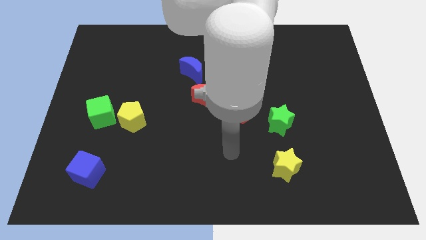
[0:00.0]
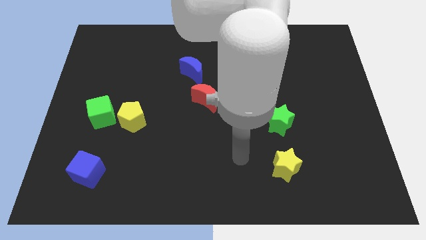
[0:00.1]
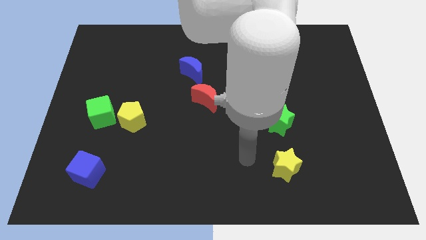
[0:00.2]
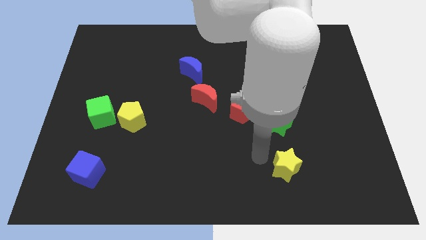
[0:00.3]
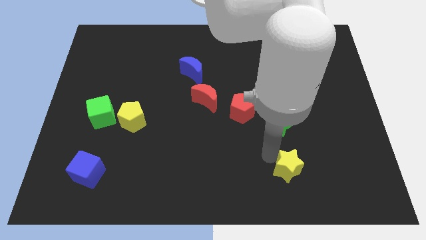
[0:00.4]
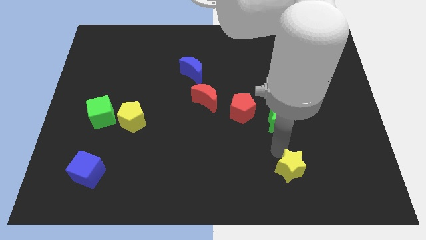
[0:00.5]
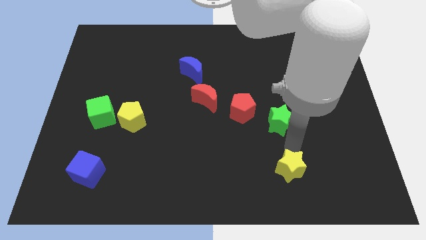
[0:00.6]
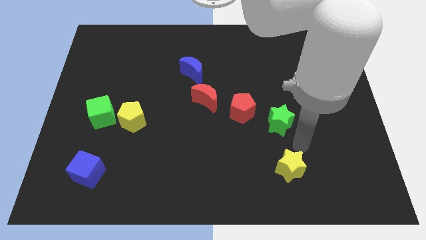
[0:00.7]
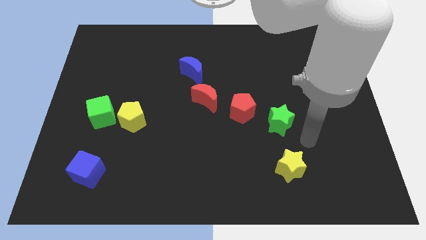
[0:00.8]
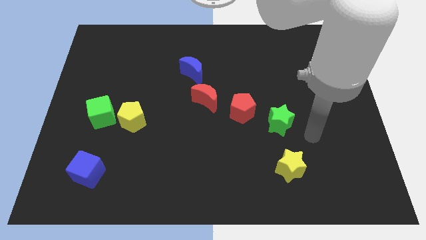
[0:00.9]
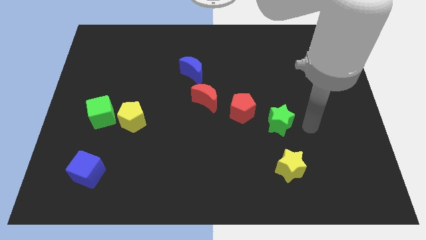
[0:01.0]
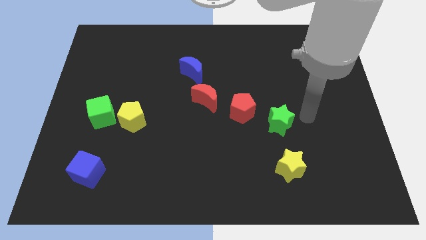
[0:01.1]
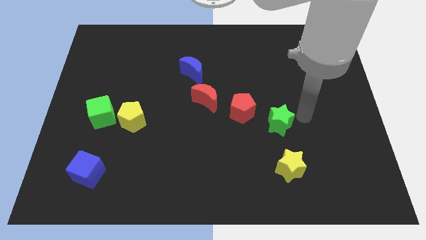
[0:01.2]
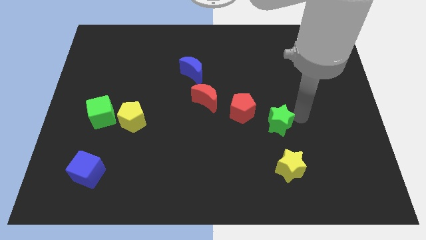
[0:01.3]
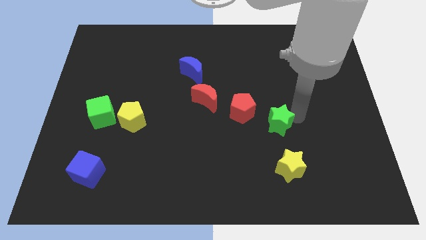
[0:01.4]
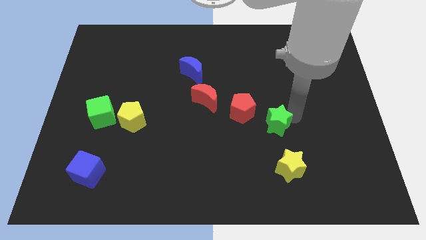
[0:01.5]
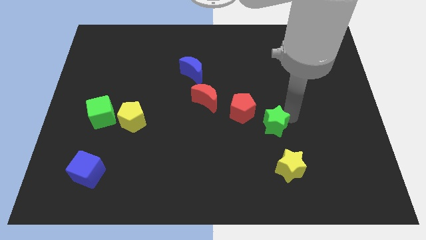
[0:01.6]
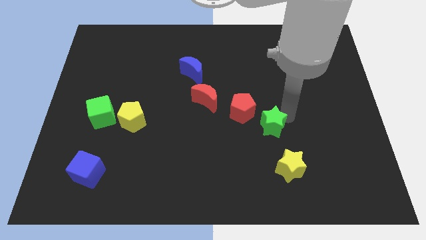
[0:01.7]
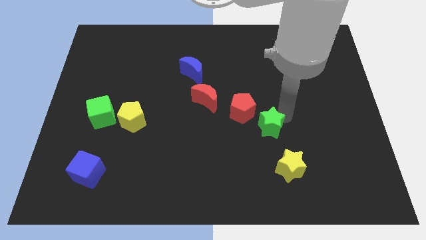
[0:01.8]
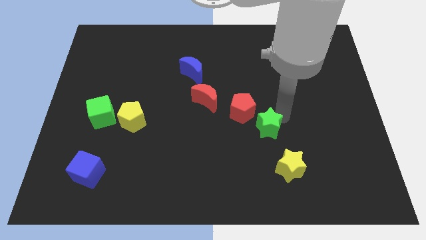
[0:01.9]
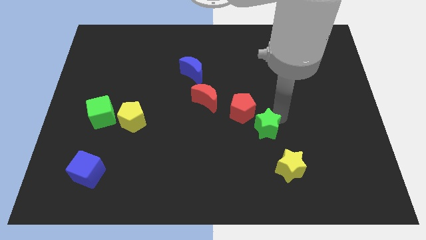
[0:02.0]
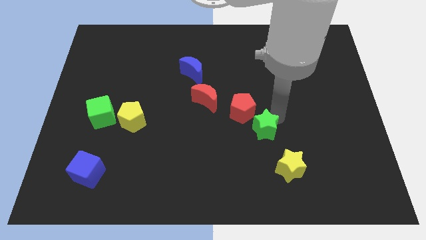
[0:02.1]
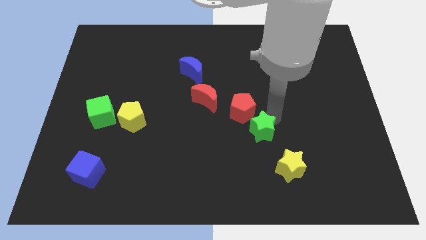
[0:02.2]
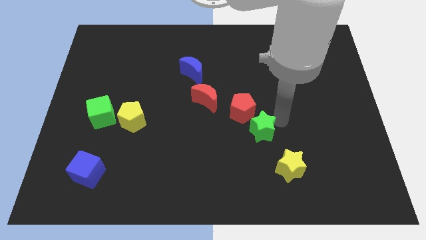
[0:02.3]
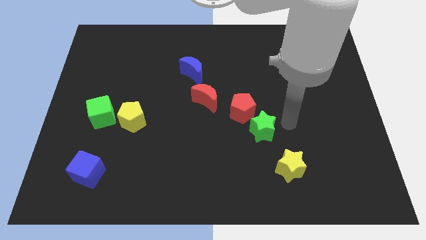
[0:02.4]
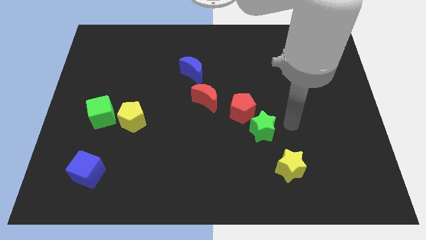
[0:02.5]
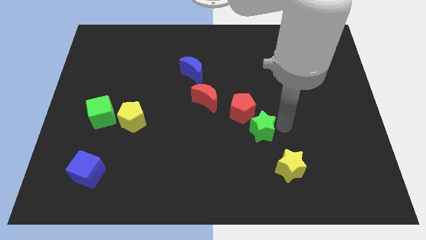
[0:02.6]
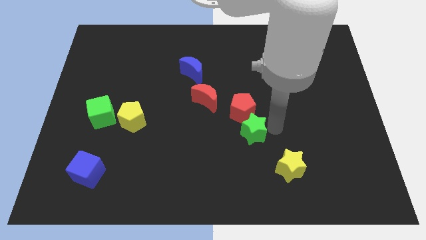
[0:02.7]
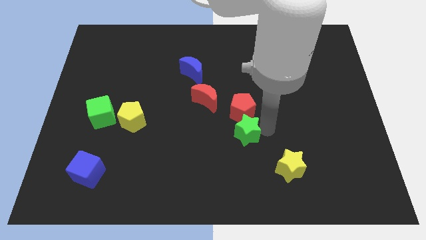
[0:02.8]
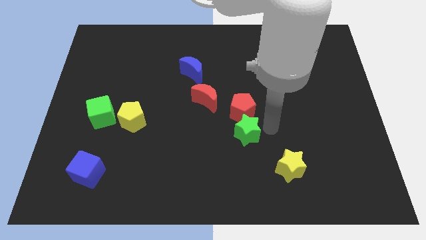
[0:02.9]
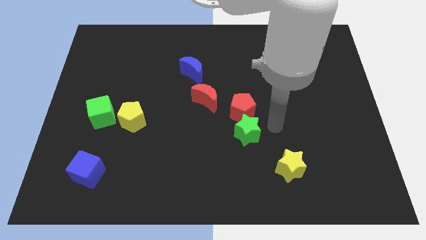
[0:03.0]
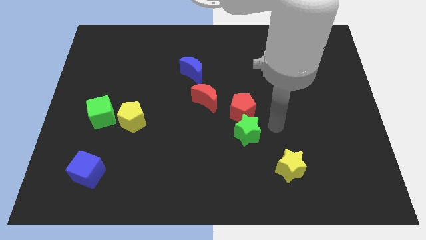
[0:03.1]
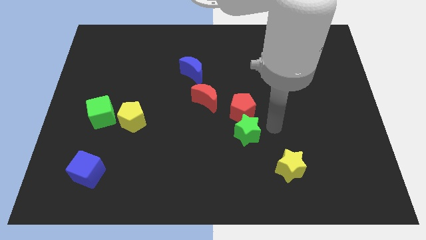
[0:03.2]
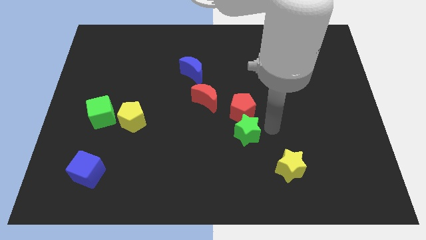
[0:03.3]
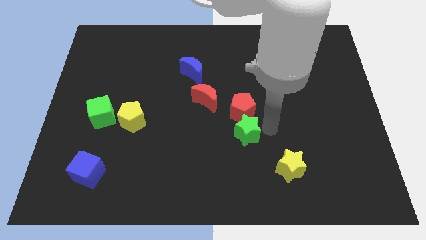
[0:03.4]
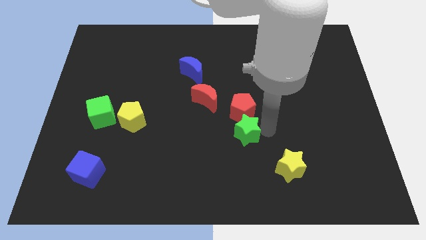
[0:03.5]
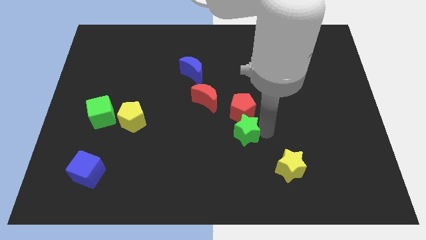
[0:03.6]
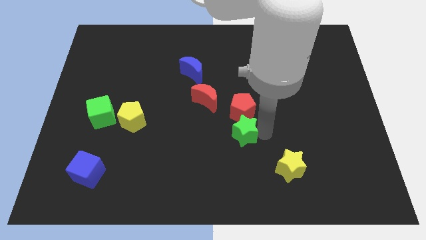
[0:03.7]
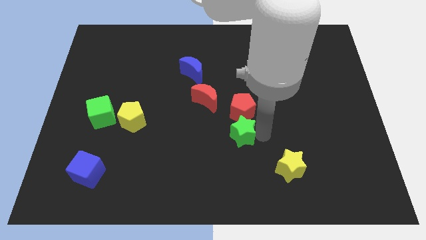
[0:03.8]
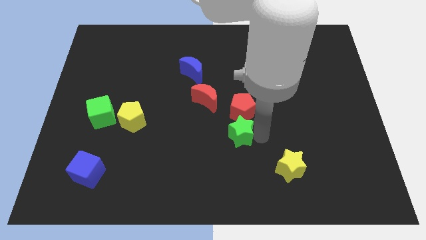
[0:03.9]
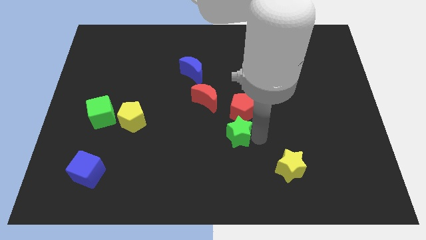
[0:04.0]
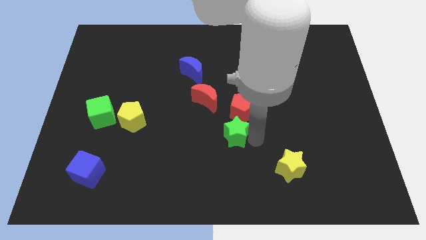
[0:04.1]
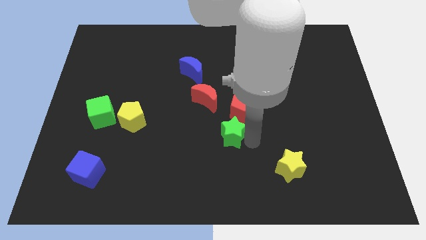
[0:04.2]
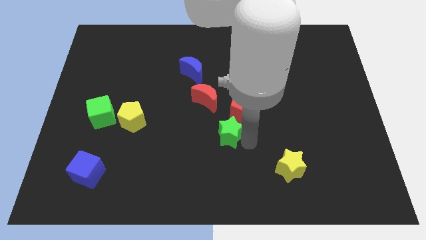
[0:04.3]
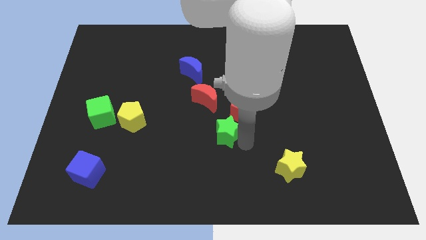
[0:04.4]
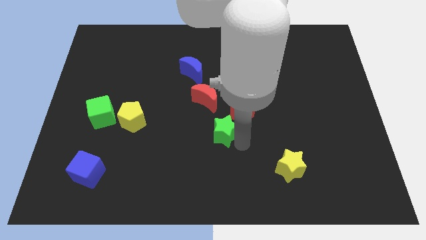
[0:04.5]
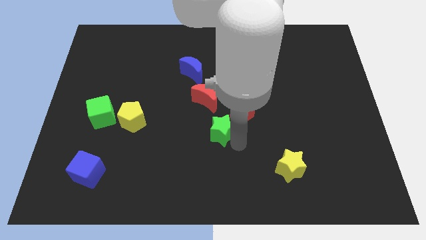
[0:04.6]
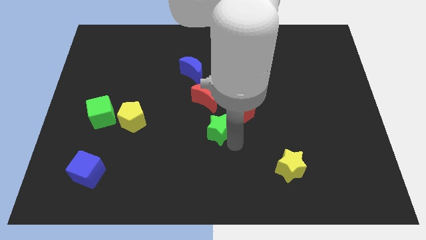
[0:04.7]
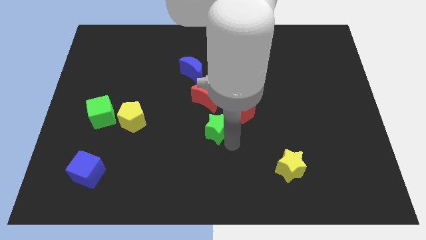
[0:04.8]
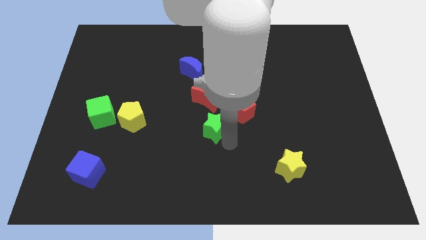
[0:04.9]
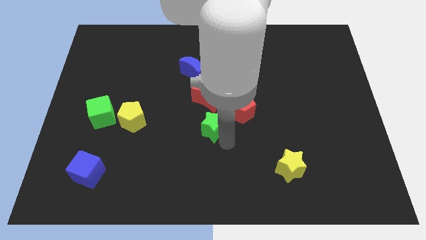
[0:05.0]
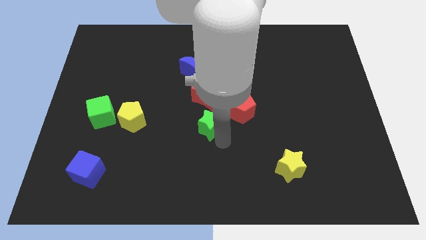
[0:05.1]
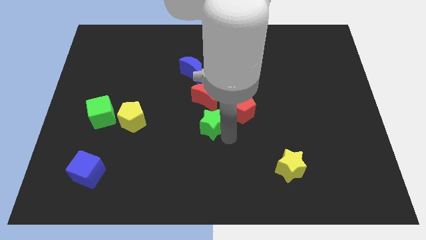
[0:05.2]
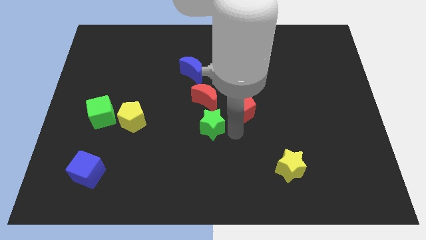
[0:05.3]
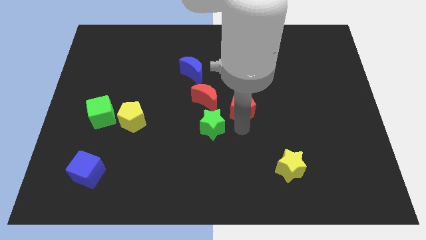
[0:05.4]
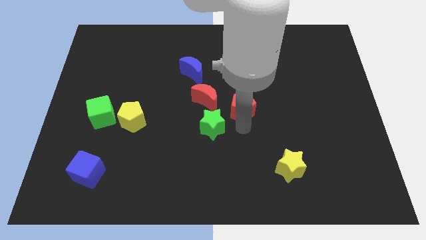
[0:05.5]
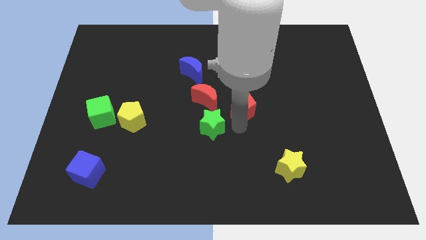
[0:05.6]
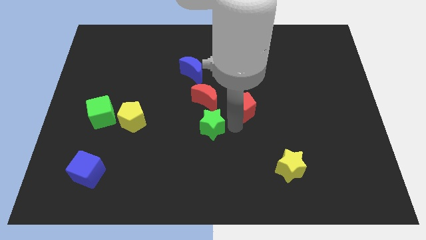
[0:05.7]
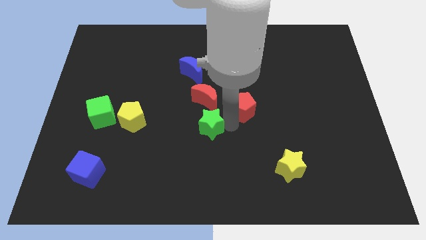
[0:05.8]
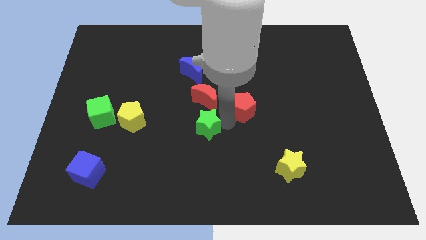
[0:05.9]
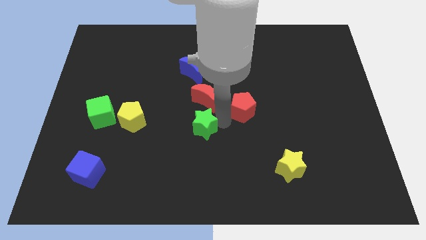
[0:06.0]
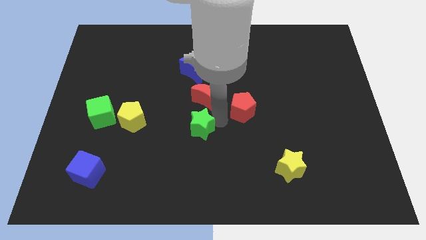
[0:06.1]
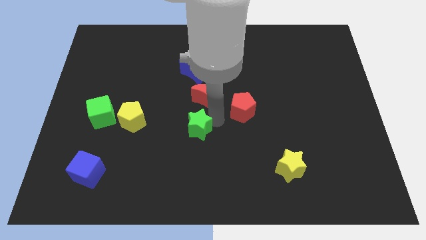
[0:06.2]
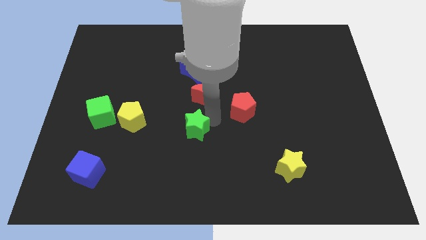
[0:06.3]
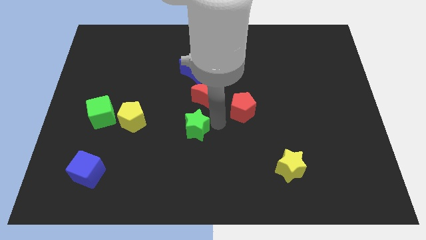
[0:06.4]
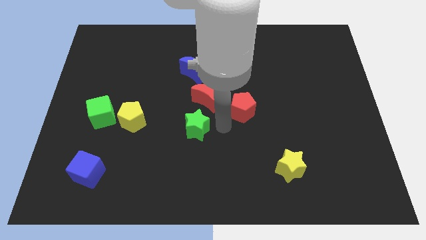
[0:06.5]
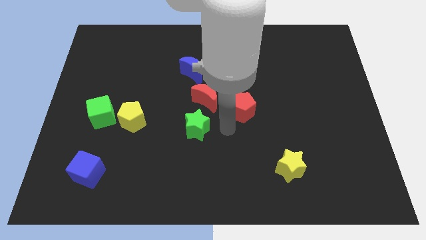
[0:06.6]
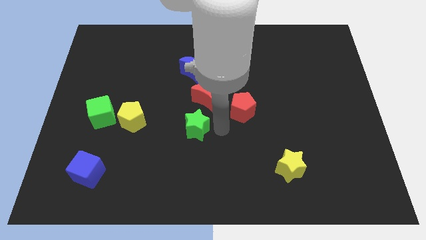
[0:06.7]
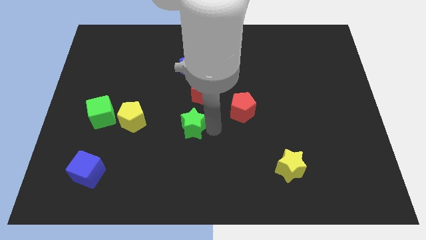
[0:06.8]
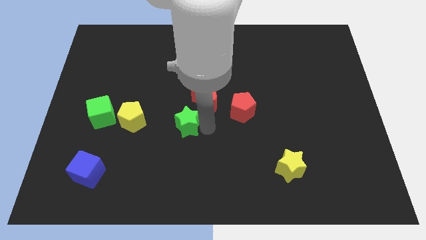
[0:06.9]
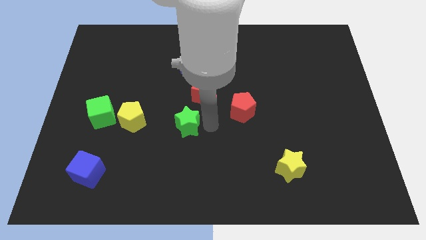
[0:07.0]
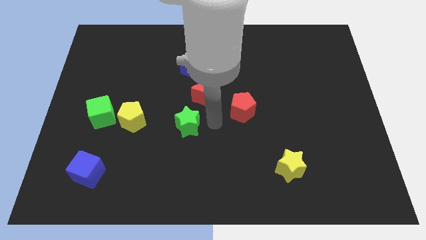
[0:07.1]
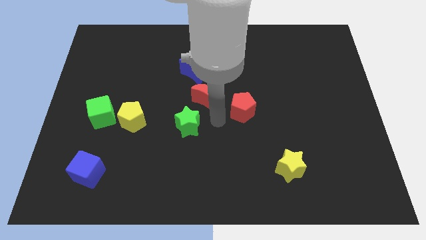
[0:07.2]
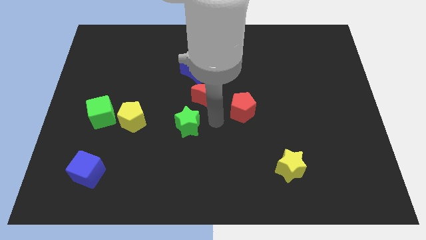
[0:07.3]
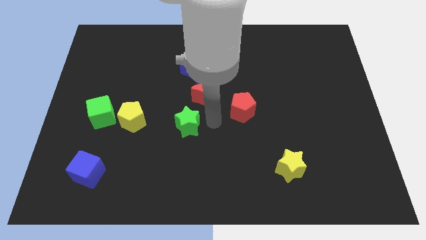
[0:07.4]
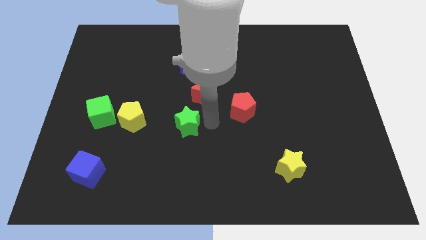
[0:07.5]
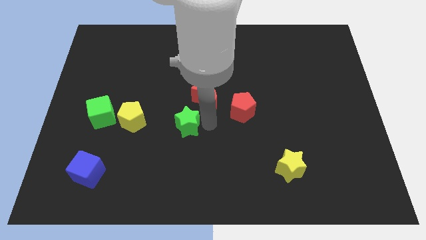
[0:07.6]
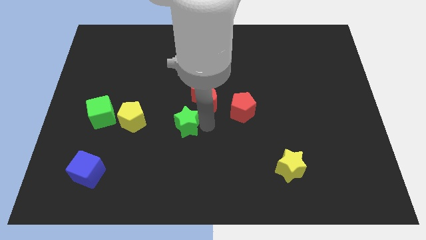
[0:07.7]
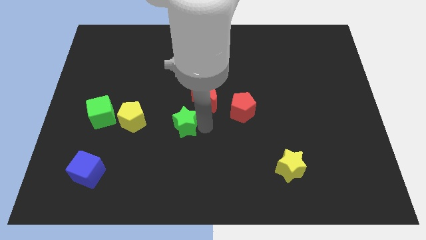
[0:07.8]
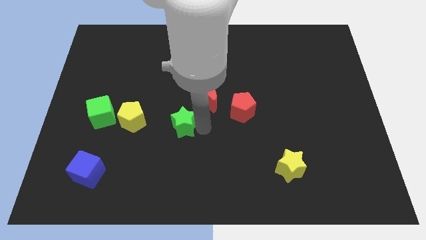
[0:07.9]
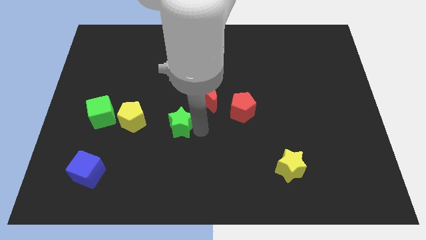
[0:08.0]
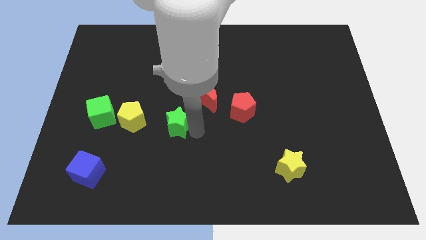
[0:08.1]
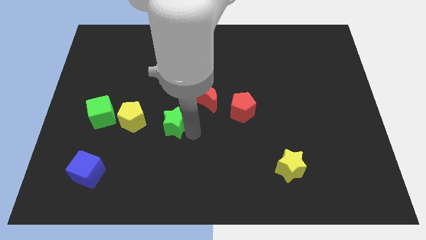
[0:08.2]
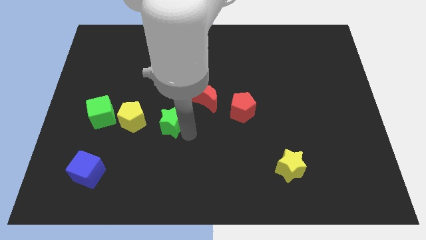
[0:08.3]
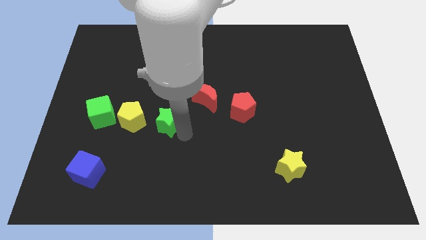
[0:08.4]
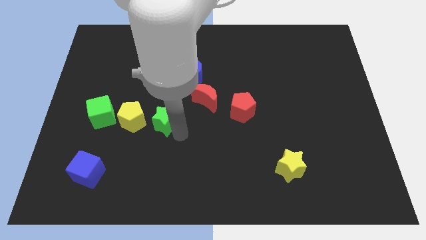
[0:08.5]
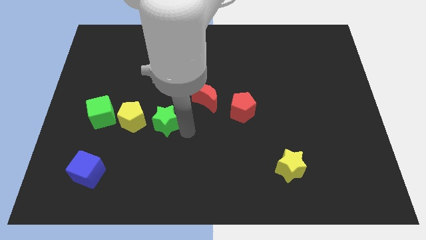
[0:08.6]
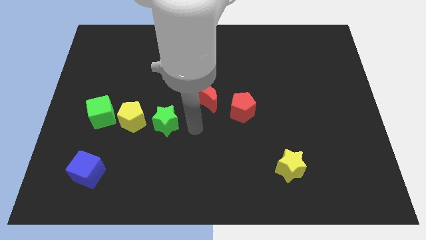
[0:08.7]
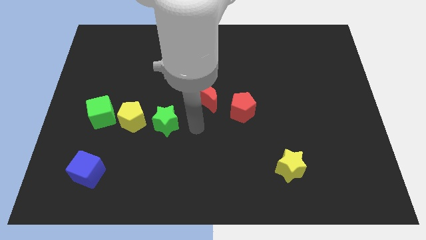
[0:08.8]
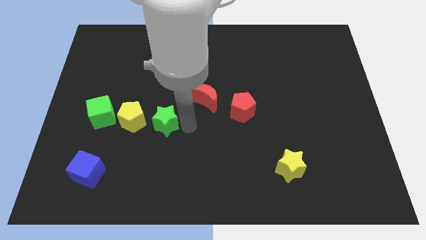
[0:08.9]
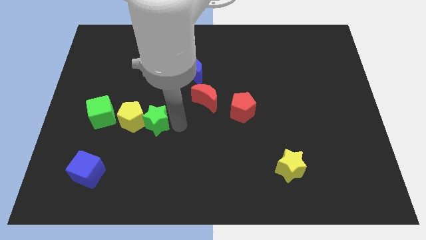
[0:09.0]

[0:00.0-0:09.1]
move the green star to the yellow pentagon
